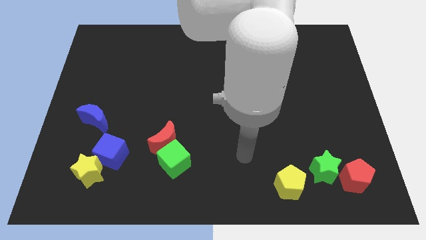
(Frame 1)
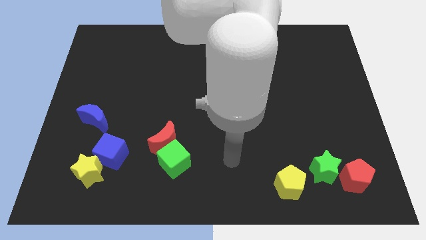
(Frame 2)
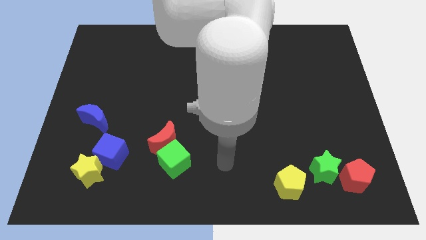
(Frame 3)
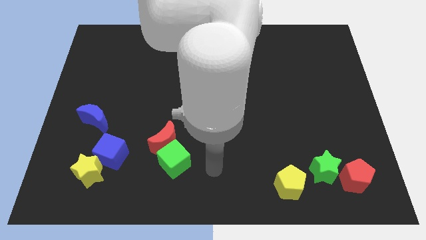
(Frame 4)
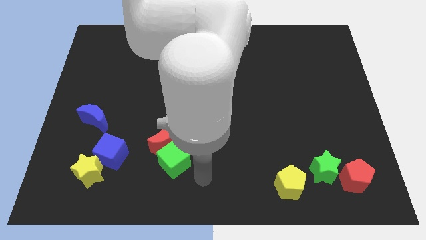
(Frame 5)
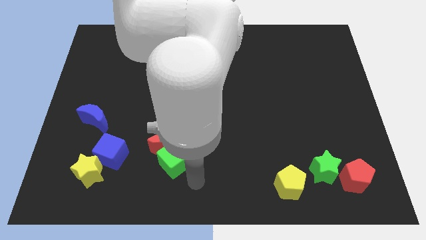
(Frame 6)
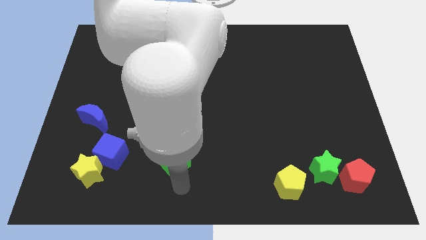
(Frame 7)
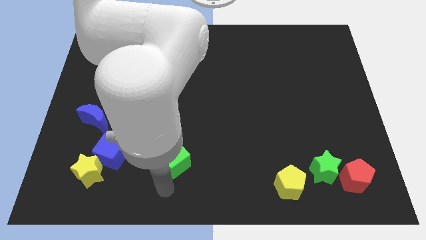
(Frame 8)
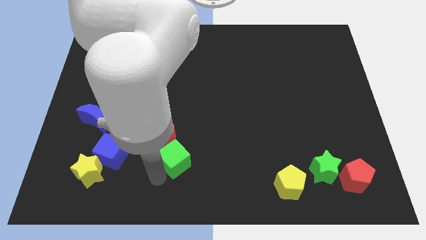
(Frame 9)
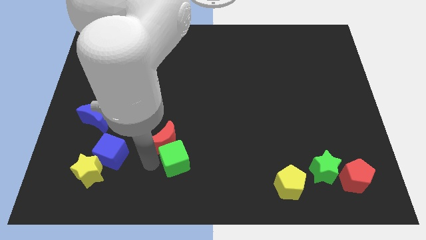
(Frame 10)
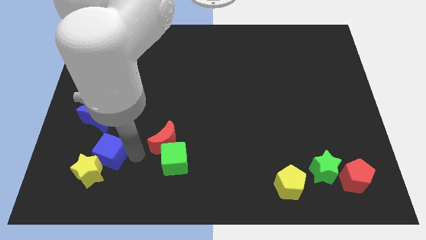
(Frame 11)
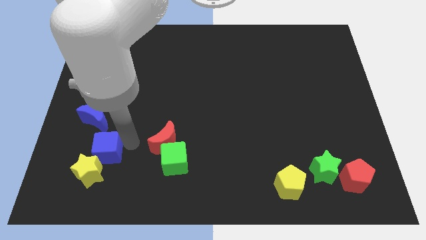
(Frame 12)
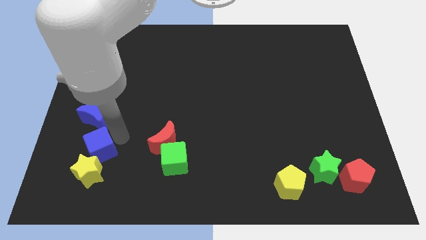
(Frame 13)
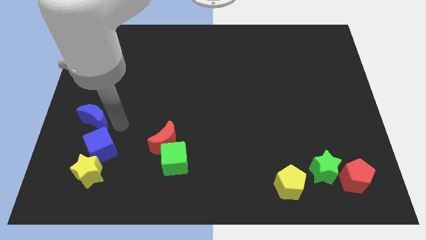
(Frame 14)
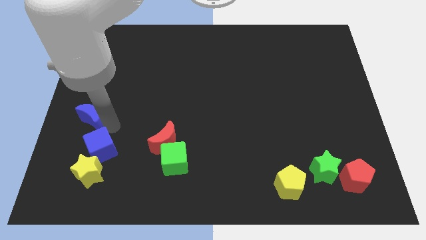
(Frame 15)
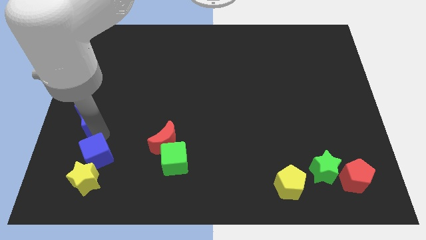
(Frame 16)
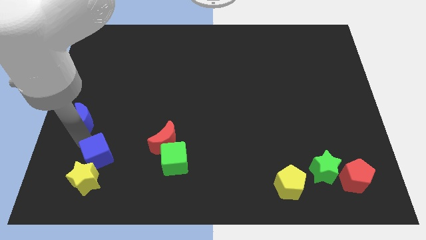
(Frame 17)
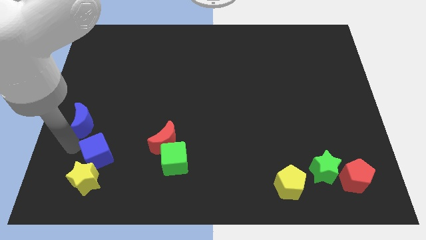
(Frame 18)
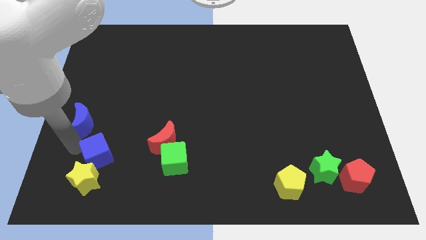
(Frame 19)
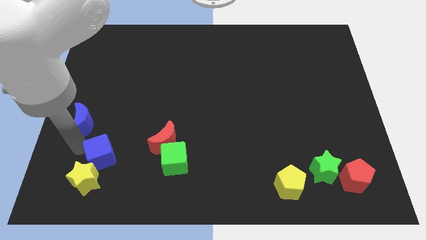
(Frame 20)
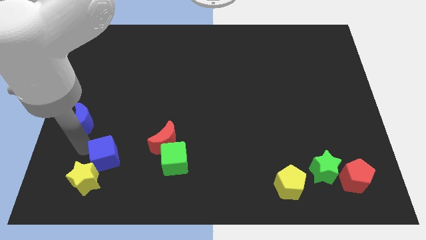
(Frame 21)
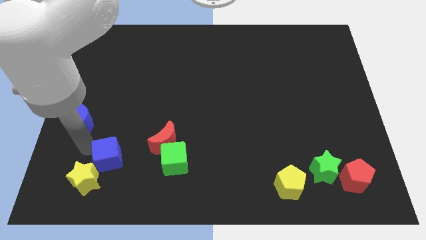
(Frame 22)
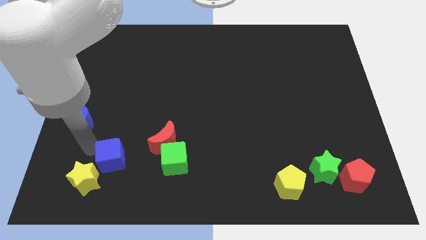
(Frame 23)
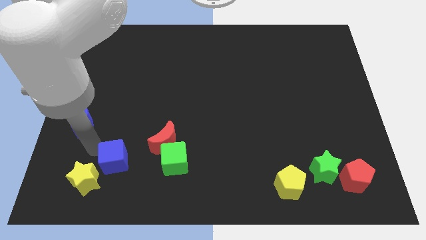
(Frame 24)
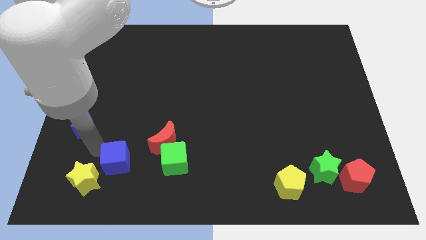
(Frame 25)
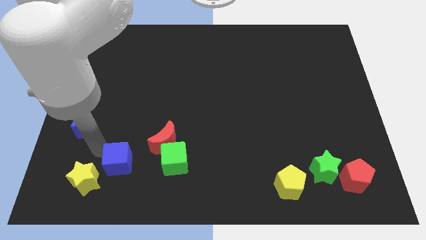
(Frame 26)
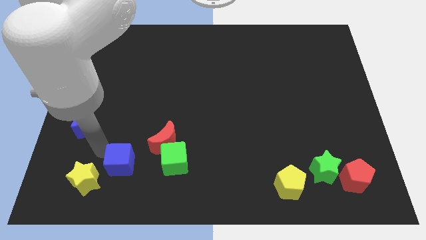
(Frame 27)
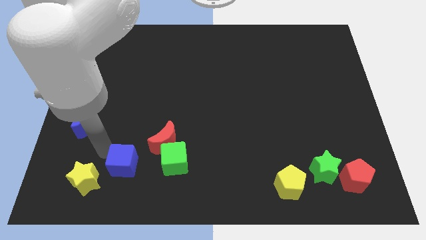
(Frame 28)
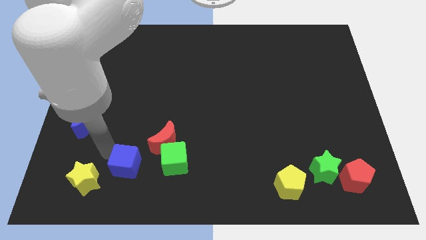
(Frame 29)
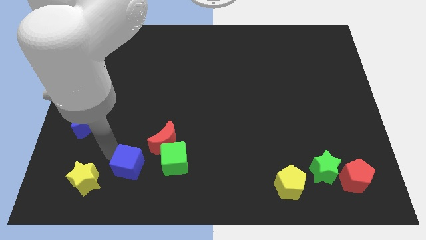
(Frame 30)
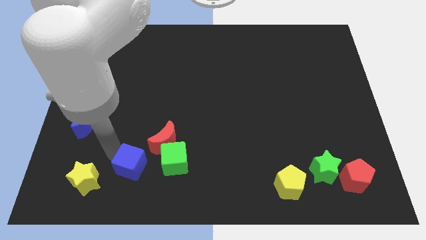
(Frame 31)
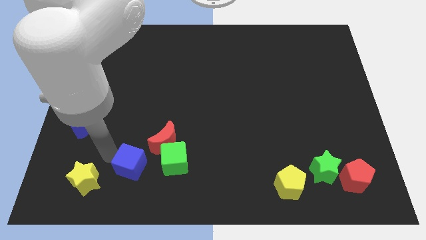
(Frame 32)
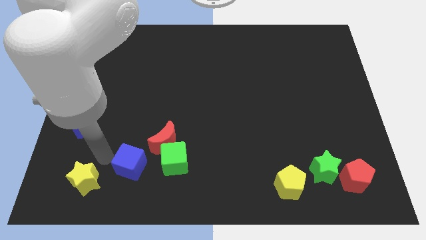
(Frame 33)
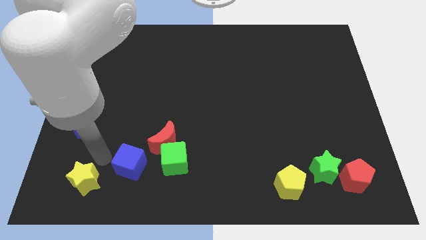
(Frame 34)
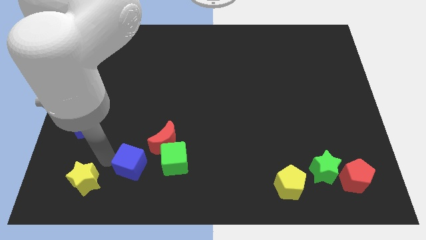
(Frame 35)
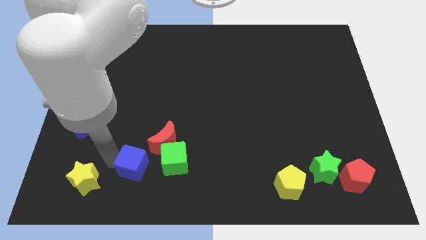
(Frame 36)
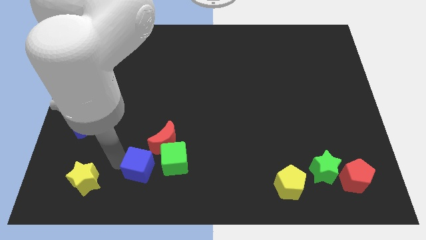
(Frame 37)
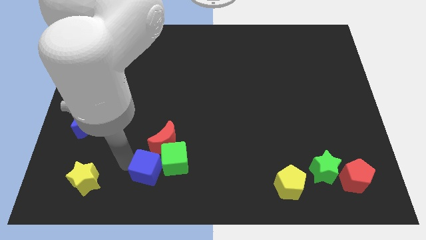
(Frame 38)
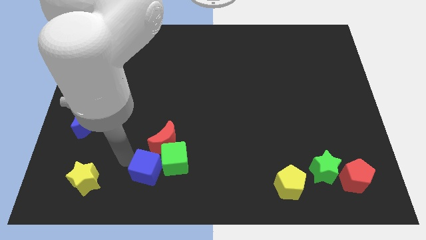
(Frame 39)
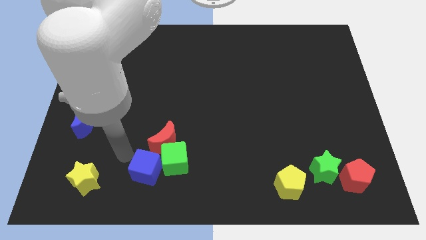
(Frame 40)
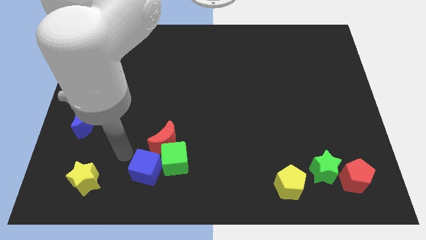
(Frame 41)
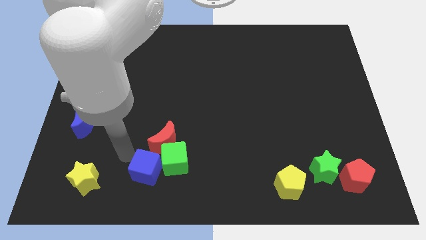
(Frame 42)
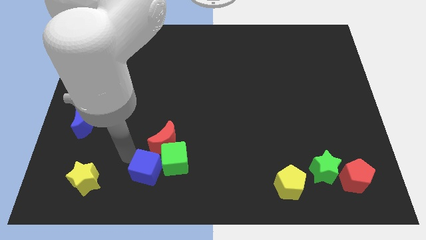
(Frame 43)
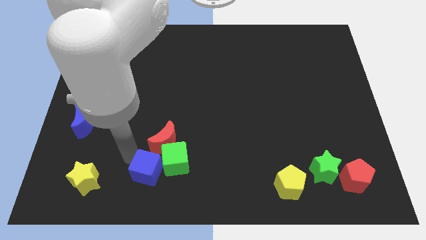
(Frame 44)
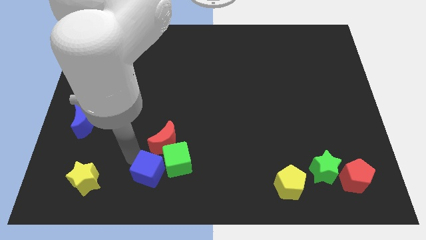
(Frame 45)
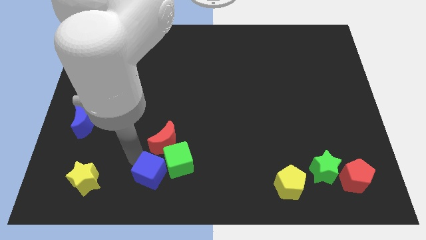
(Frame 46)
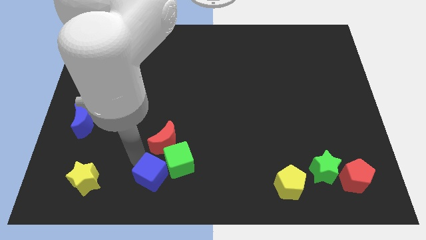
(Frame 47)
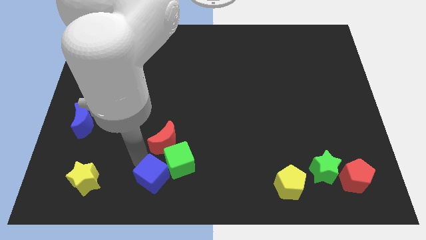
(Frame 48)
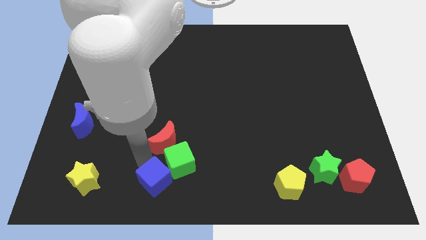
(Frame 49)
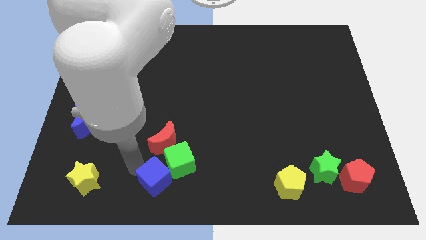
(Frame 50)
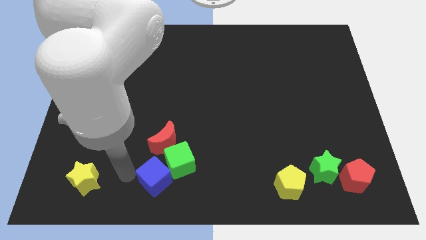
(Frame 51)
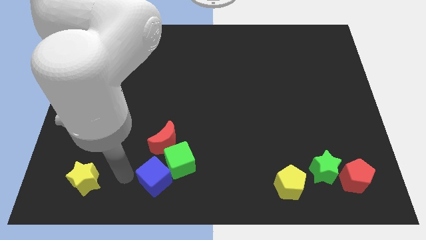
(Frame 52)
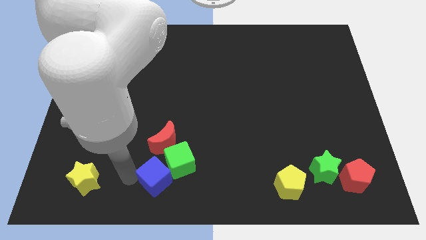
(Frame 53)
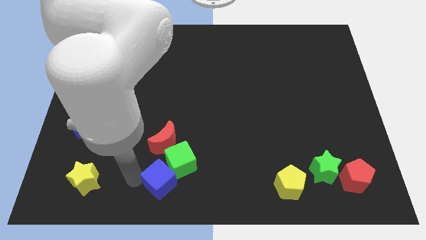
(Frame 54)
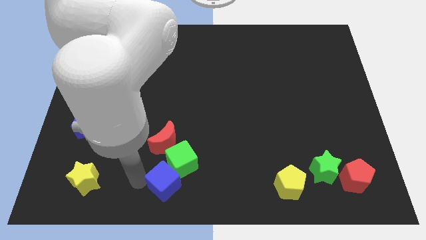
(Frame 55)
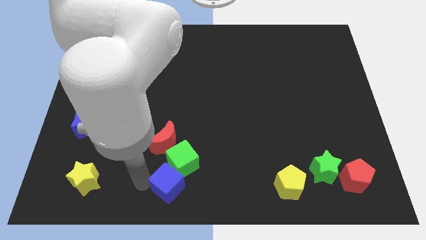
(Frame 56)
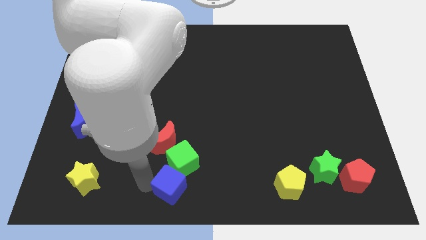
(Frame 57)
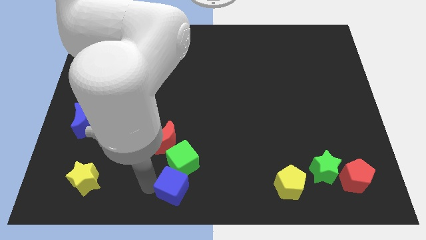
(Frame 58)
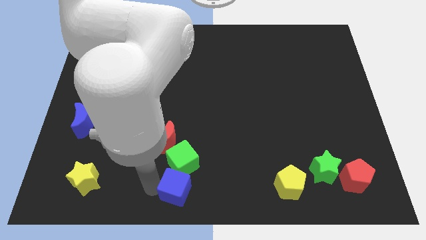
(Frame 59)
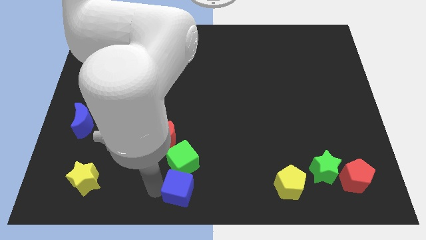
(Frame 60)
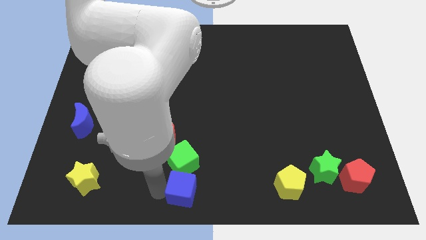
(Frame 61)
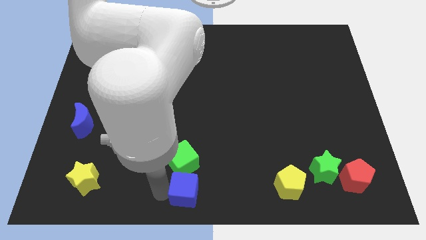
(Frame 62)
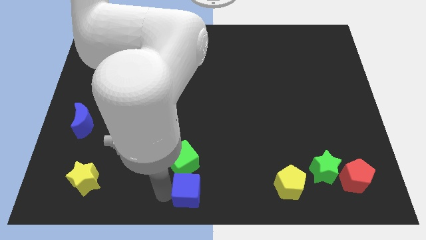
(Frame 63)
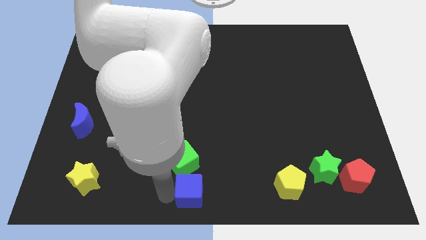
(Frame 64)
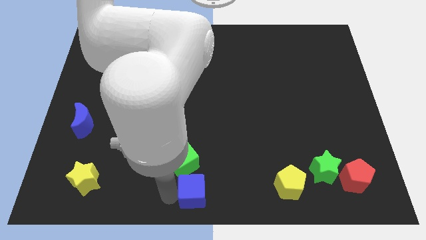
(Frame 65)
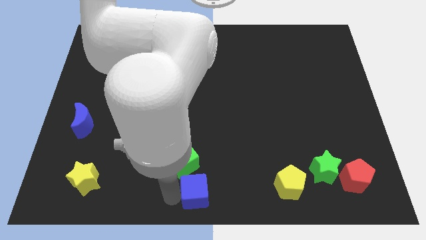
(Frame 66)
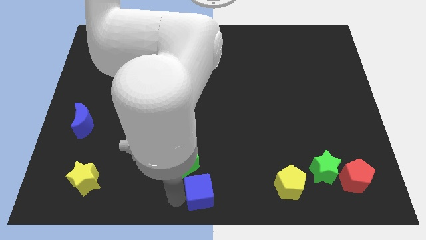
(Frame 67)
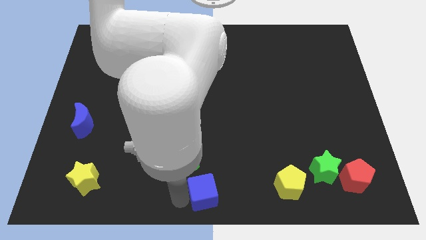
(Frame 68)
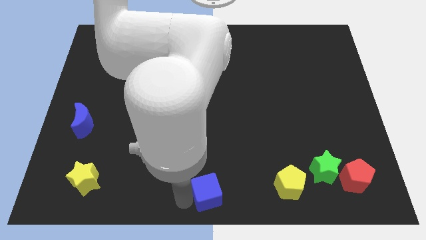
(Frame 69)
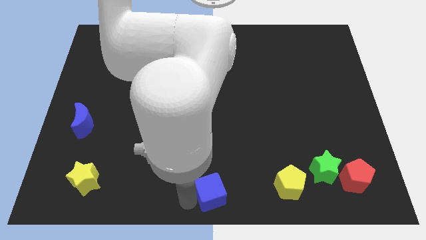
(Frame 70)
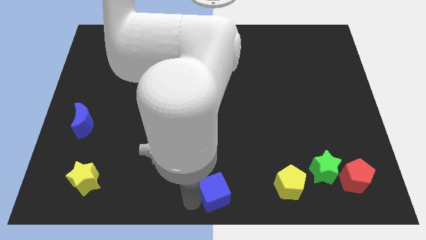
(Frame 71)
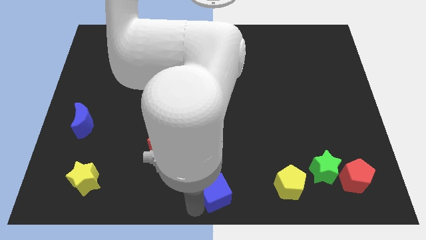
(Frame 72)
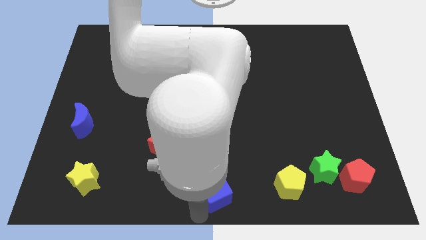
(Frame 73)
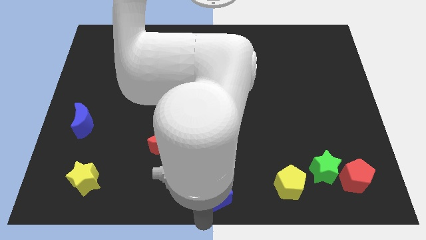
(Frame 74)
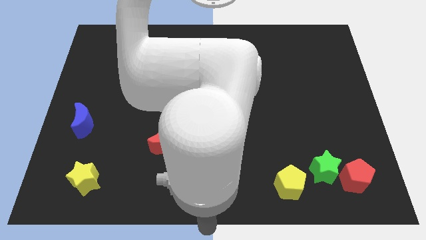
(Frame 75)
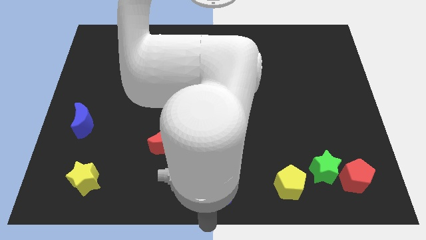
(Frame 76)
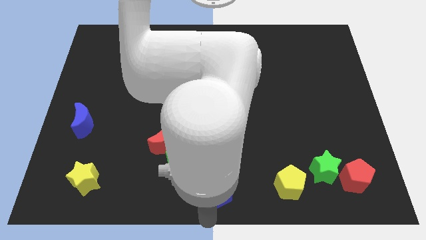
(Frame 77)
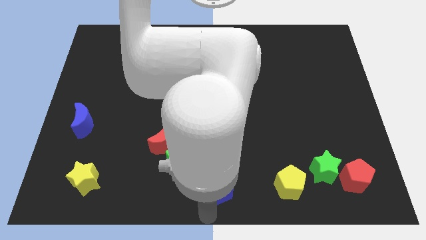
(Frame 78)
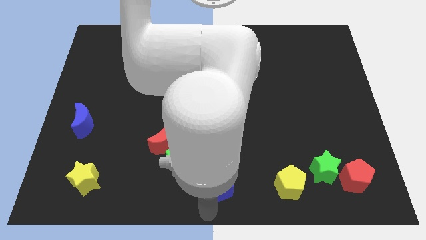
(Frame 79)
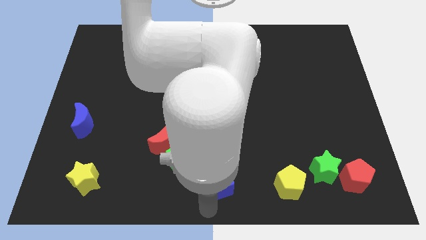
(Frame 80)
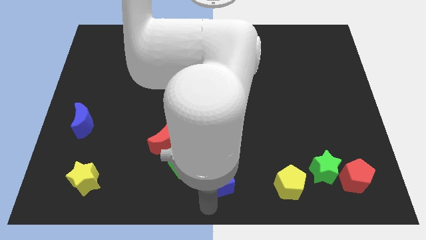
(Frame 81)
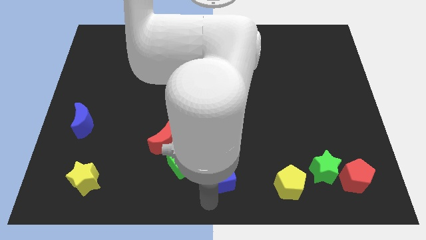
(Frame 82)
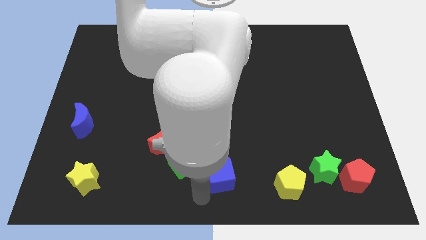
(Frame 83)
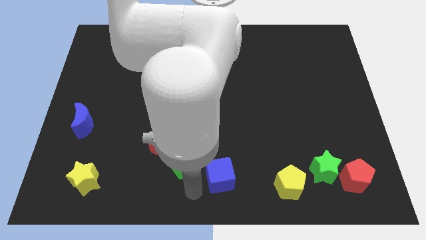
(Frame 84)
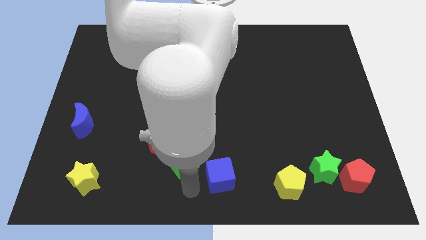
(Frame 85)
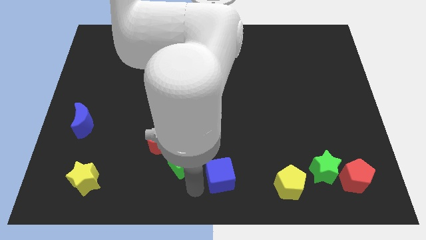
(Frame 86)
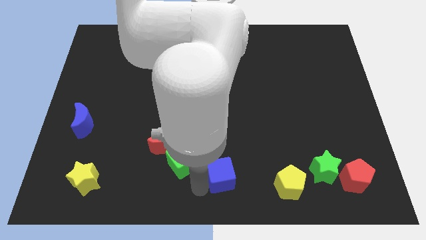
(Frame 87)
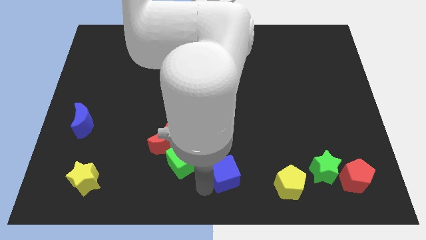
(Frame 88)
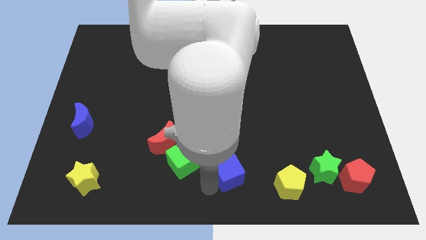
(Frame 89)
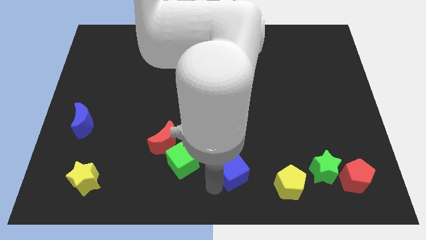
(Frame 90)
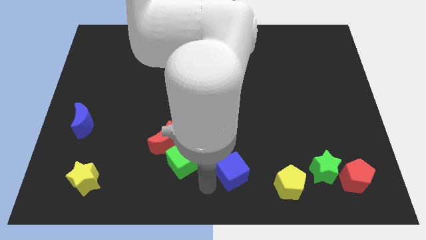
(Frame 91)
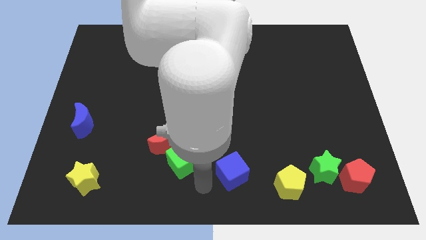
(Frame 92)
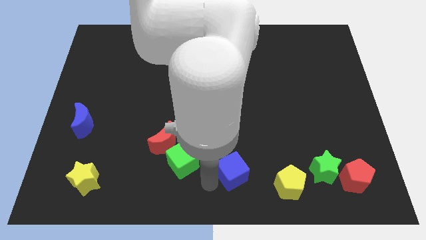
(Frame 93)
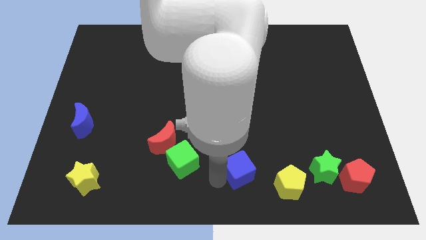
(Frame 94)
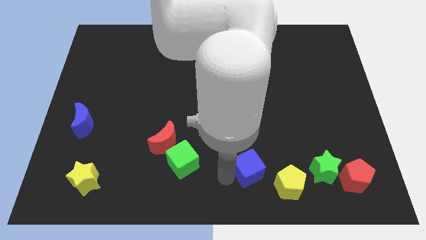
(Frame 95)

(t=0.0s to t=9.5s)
push the blue cube to the top left of the yellow pentagon
